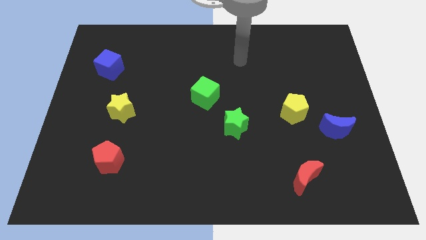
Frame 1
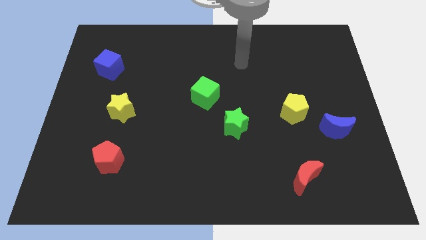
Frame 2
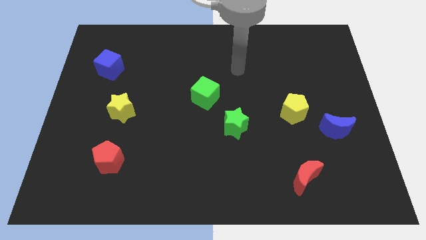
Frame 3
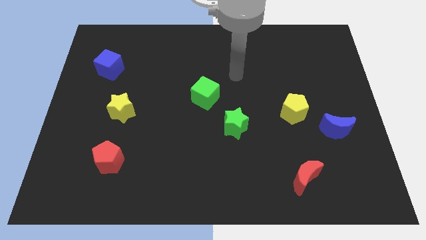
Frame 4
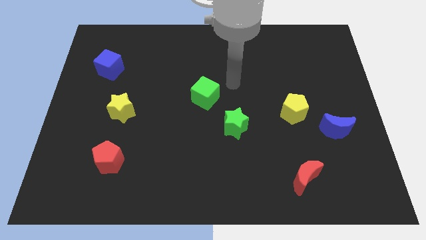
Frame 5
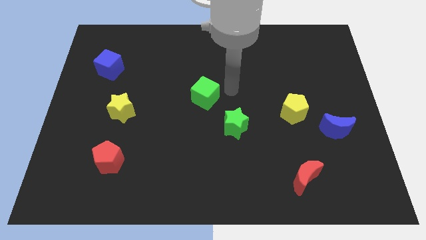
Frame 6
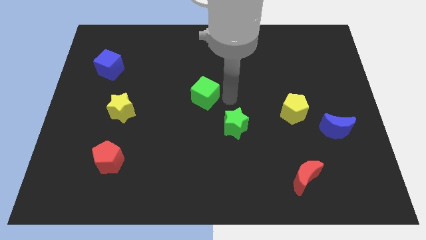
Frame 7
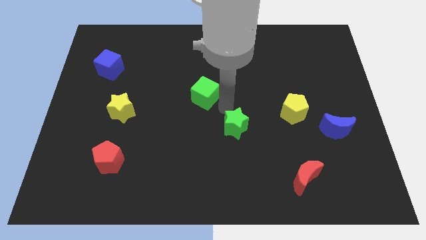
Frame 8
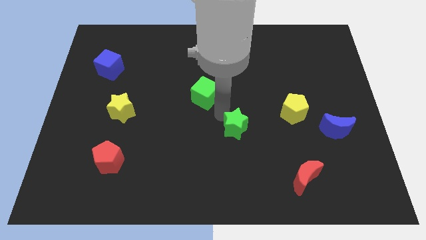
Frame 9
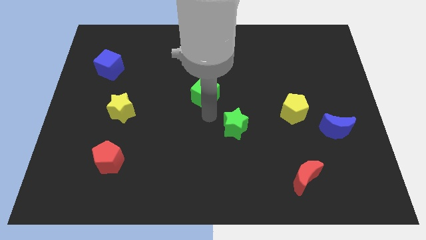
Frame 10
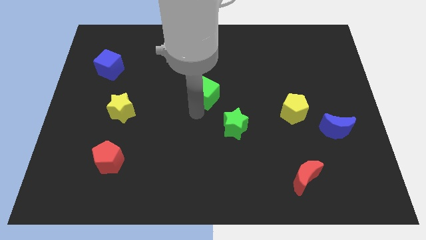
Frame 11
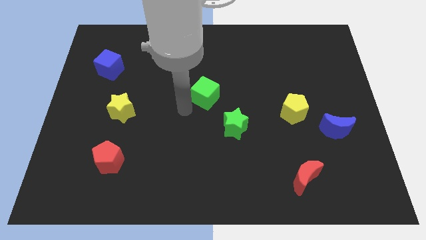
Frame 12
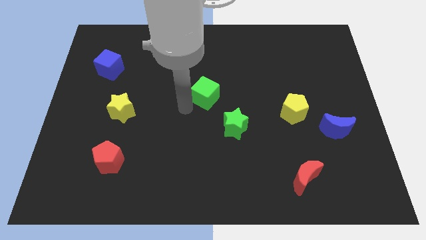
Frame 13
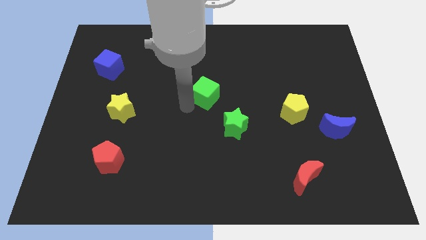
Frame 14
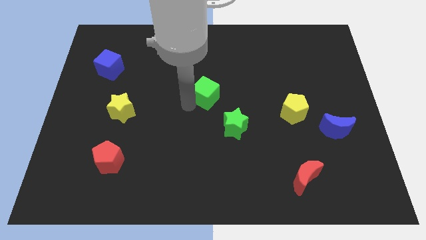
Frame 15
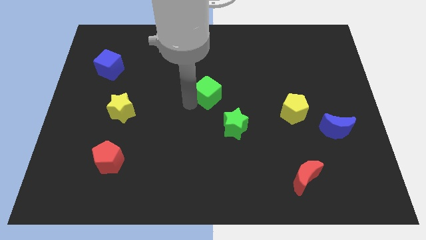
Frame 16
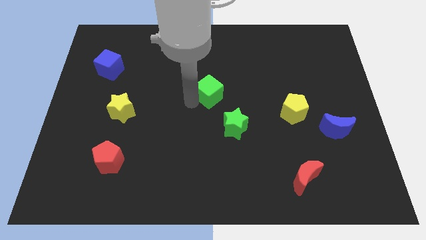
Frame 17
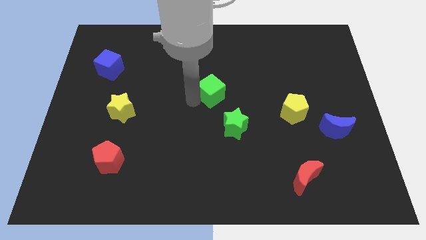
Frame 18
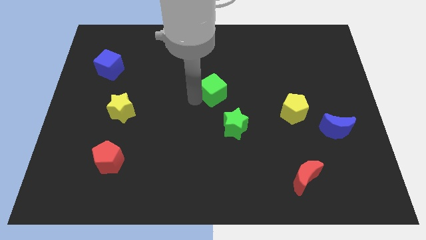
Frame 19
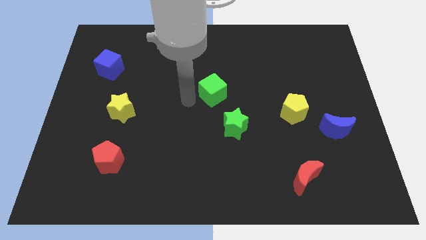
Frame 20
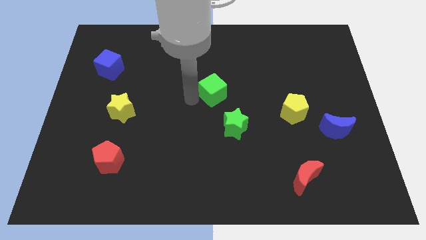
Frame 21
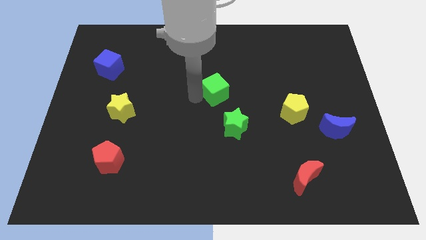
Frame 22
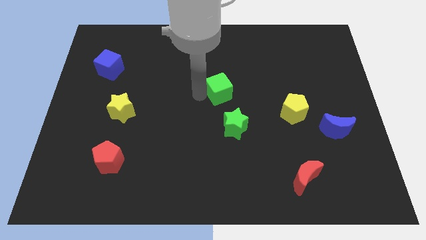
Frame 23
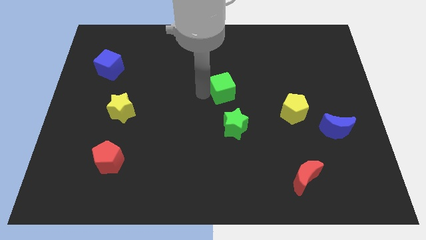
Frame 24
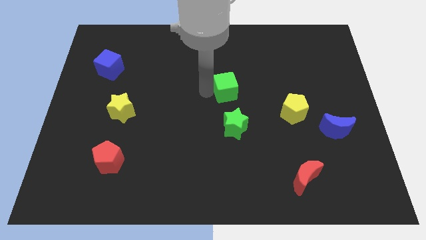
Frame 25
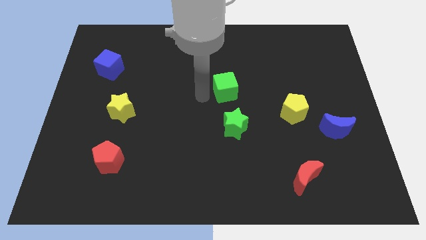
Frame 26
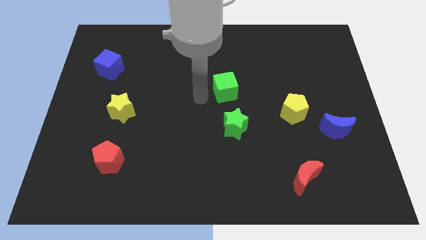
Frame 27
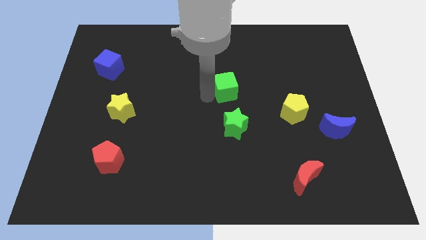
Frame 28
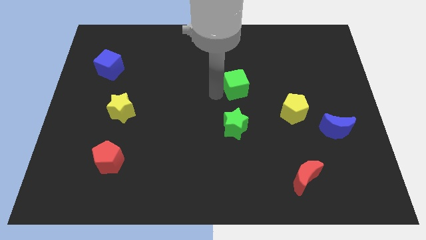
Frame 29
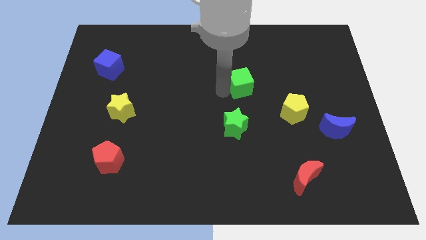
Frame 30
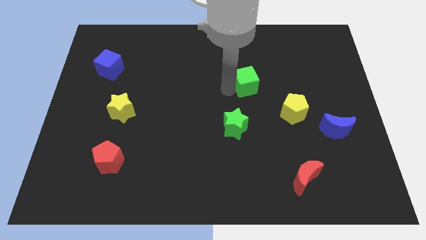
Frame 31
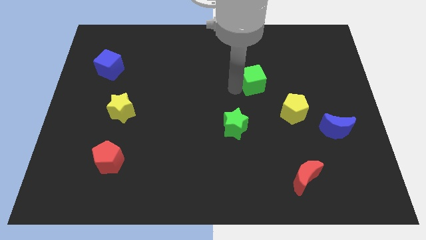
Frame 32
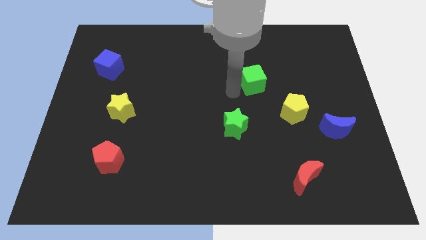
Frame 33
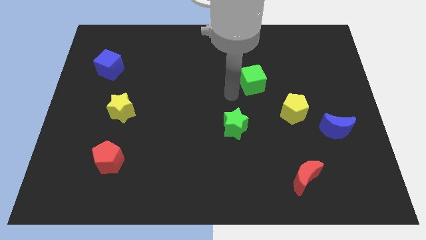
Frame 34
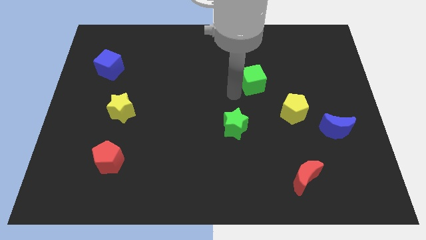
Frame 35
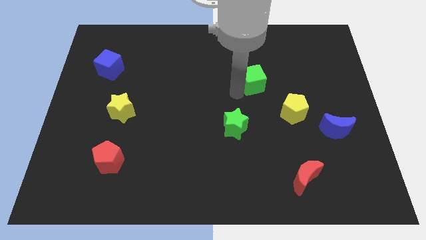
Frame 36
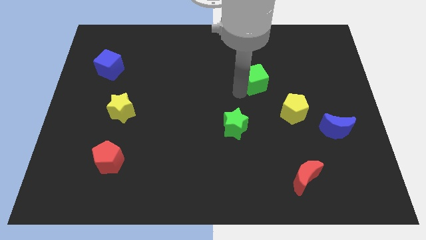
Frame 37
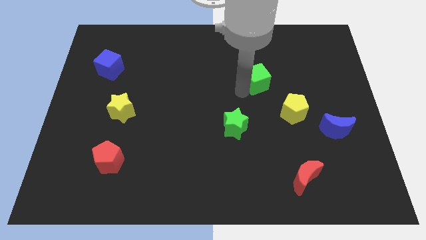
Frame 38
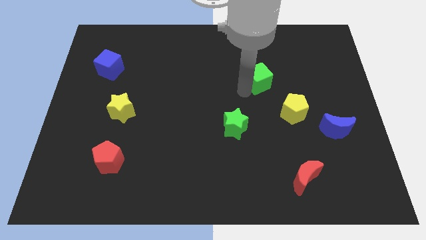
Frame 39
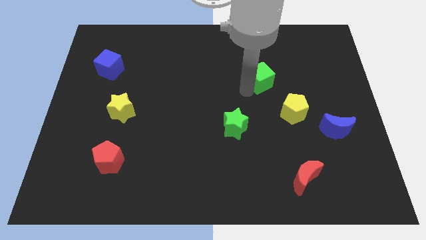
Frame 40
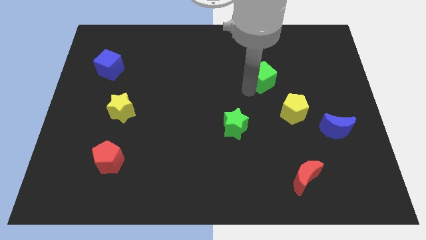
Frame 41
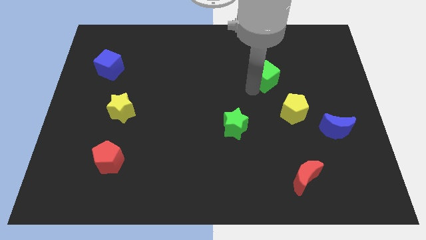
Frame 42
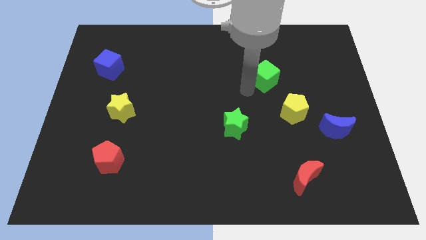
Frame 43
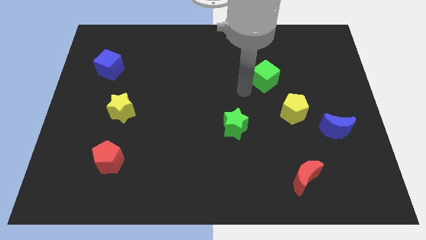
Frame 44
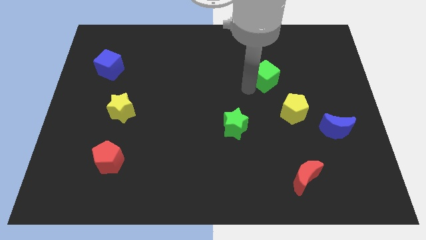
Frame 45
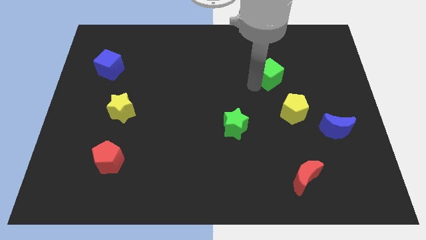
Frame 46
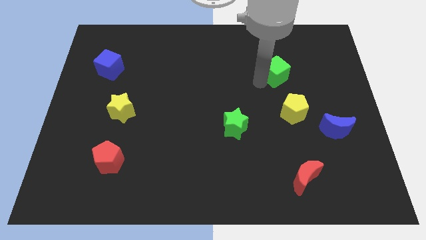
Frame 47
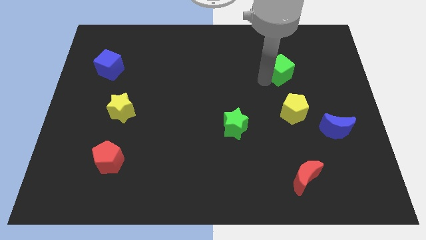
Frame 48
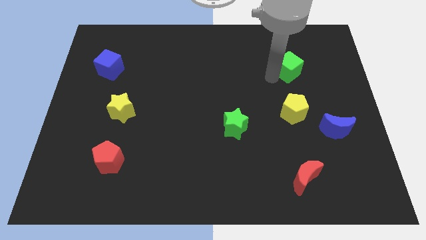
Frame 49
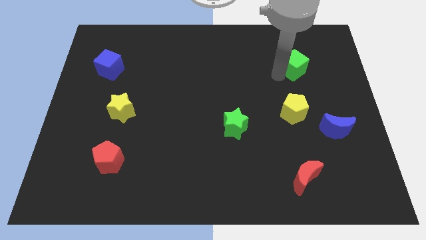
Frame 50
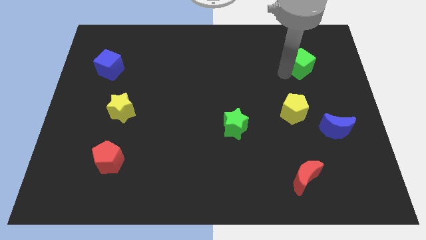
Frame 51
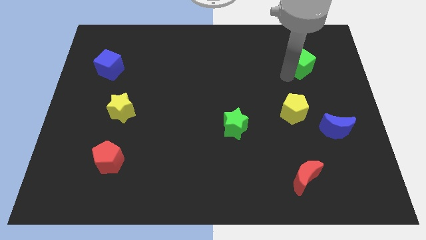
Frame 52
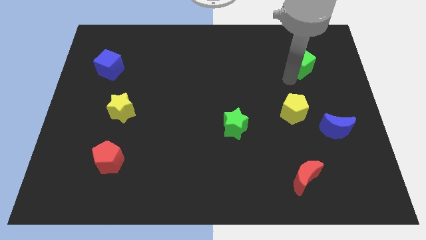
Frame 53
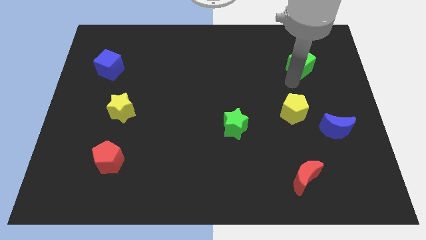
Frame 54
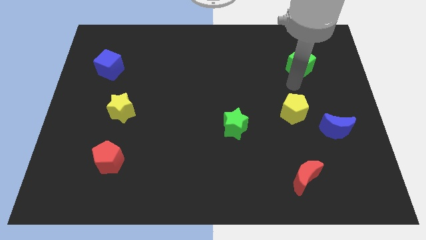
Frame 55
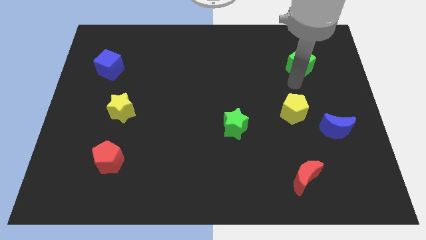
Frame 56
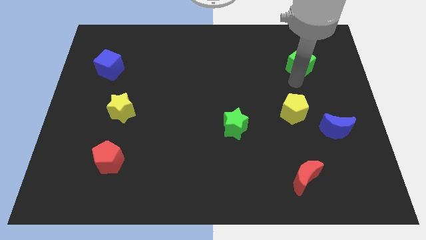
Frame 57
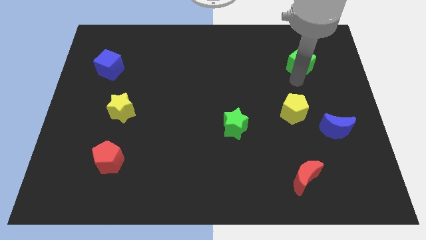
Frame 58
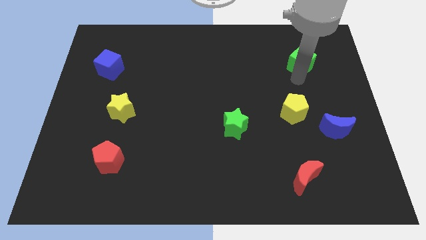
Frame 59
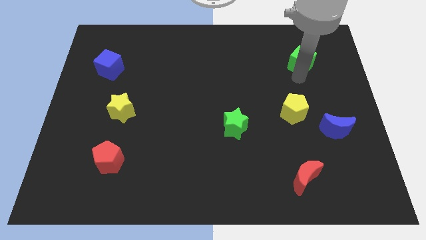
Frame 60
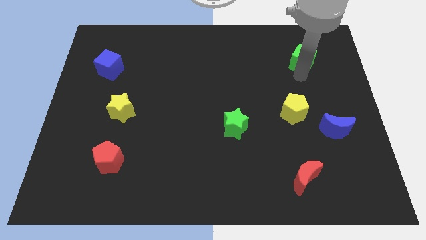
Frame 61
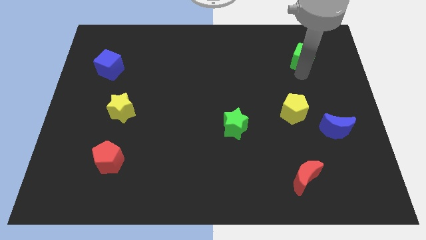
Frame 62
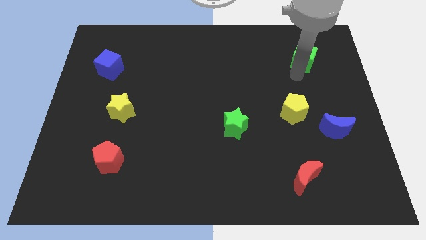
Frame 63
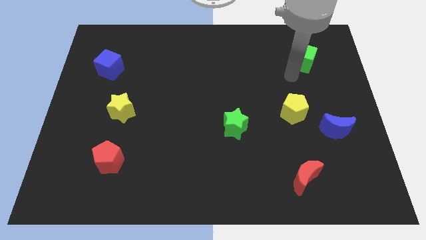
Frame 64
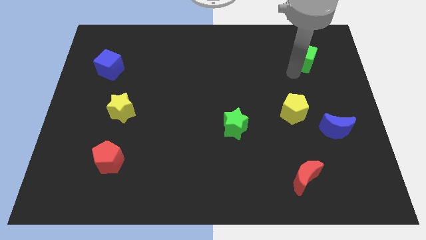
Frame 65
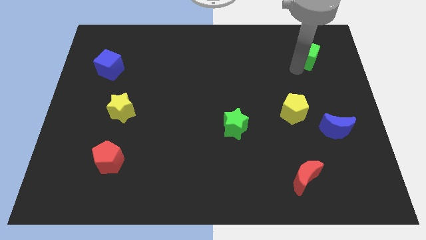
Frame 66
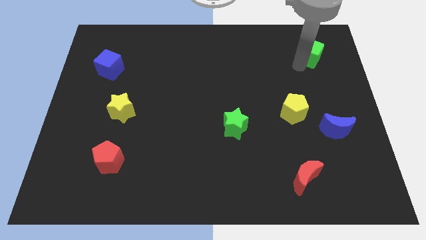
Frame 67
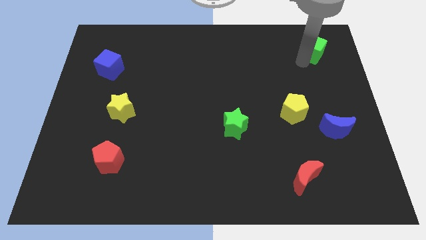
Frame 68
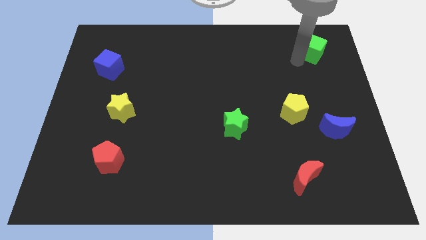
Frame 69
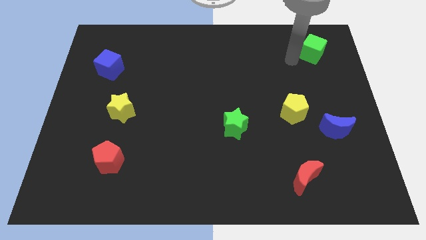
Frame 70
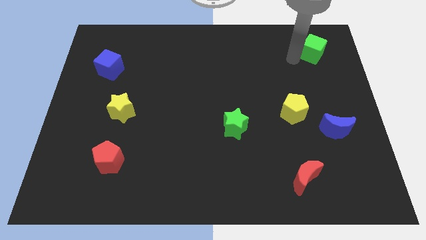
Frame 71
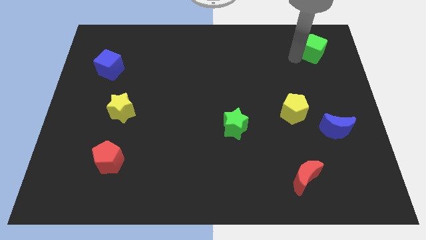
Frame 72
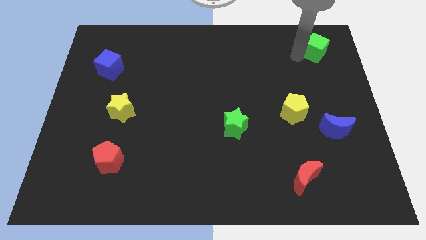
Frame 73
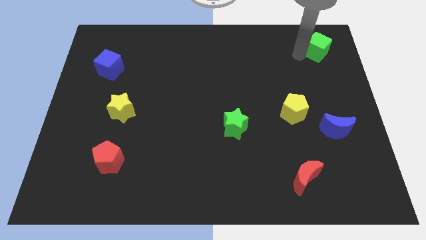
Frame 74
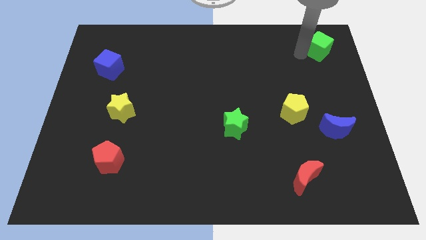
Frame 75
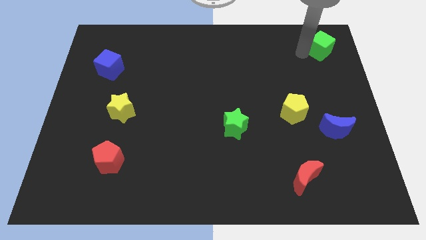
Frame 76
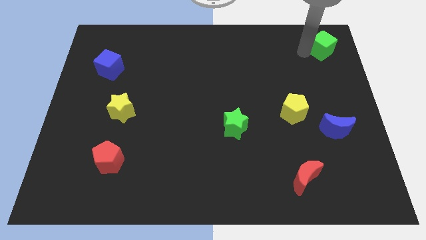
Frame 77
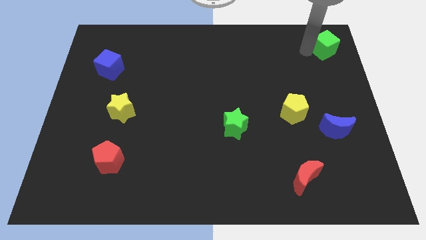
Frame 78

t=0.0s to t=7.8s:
slide the green cube to the top right of the board
